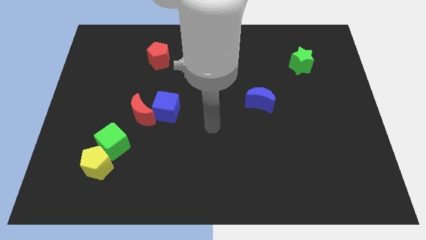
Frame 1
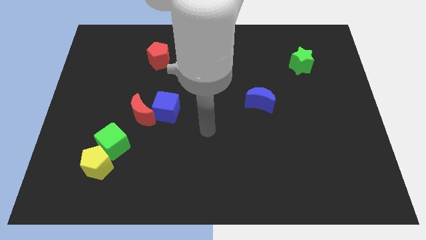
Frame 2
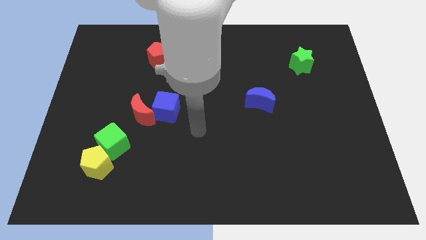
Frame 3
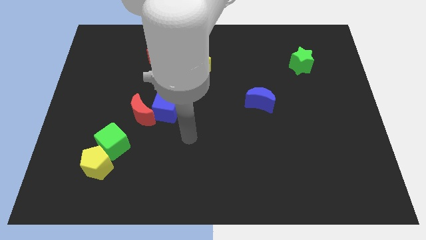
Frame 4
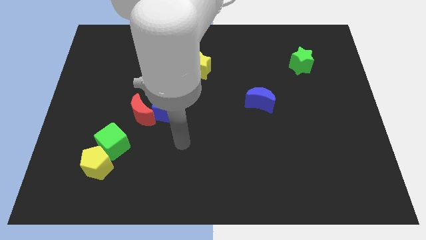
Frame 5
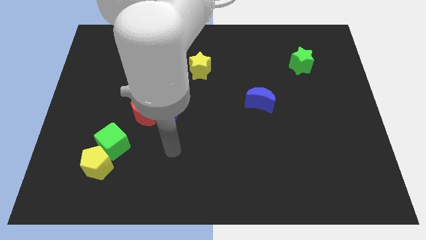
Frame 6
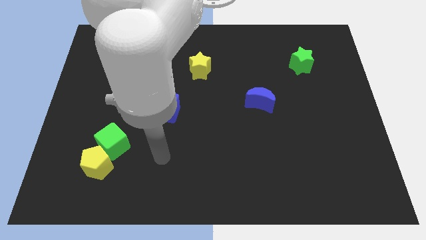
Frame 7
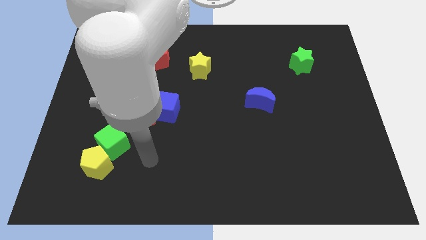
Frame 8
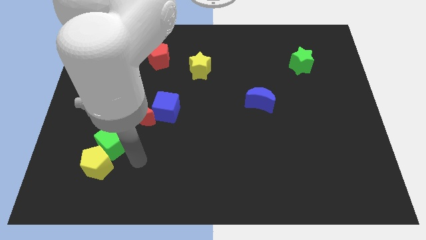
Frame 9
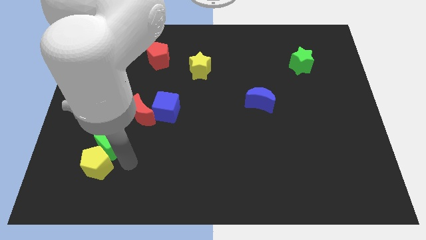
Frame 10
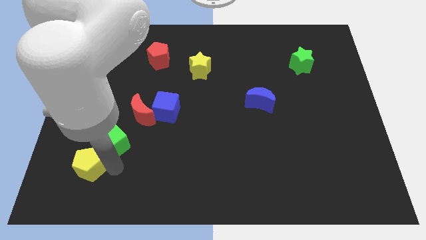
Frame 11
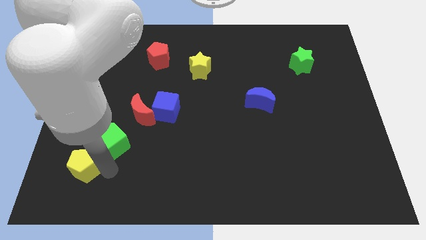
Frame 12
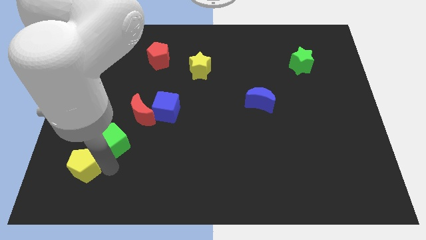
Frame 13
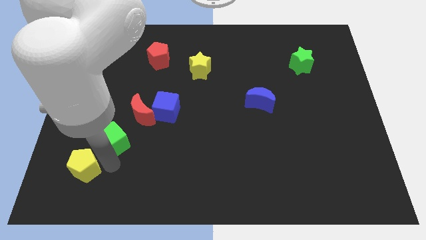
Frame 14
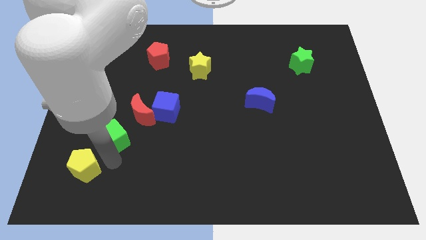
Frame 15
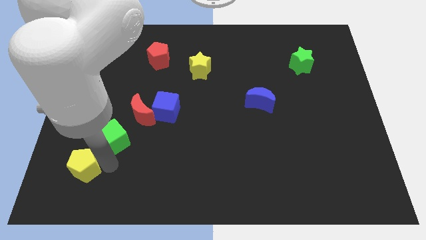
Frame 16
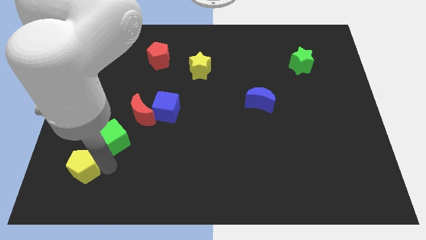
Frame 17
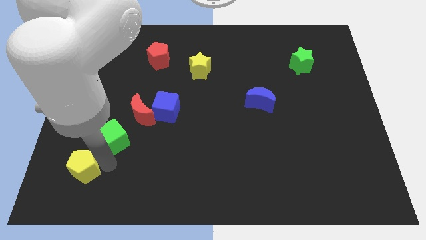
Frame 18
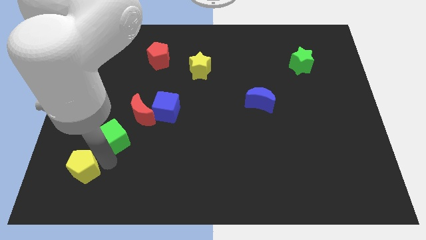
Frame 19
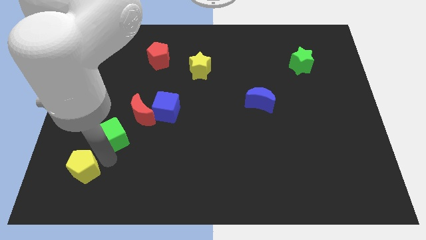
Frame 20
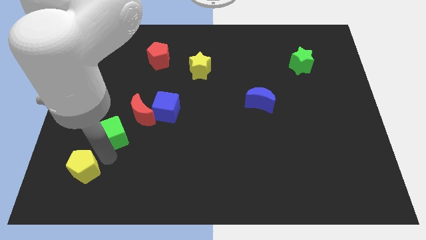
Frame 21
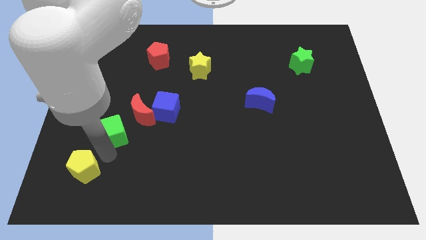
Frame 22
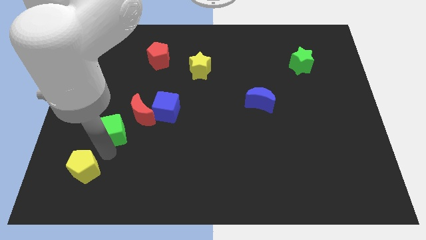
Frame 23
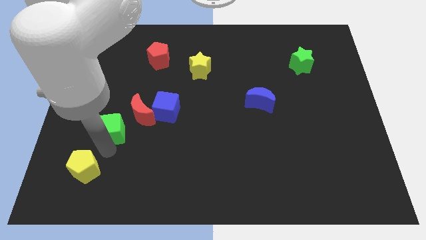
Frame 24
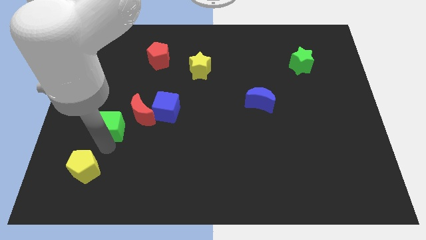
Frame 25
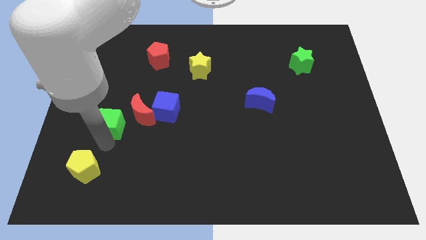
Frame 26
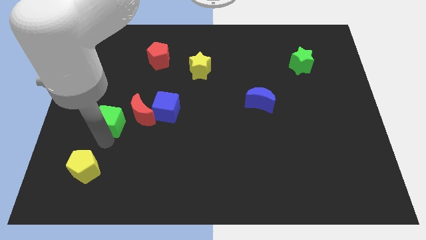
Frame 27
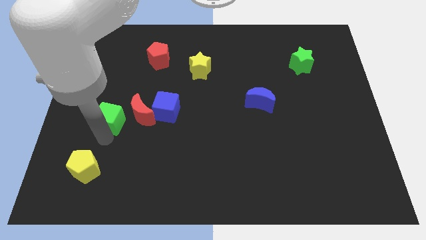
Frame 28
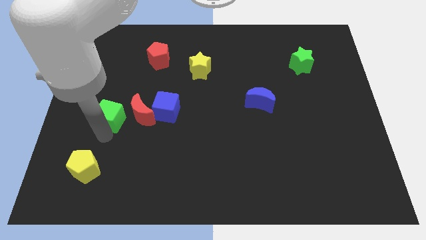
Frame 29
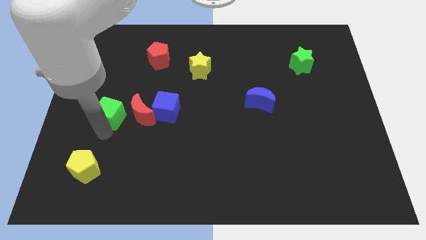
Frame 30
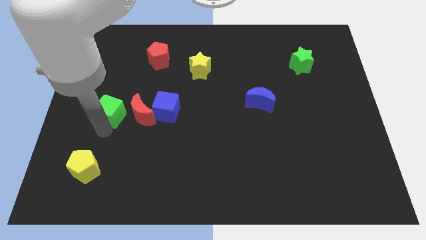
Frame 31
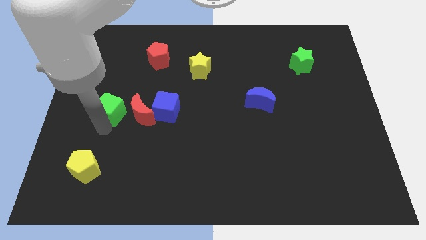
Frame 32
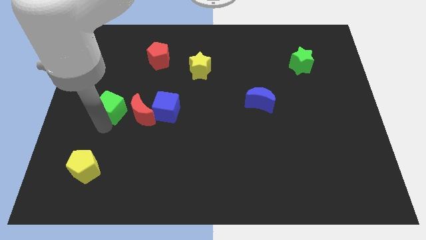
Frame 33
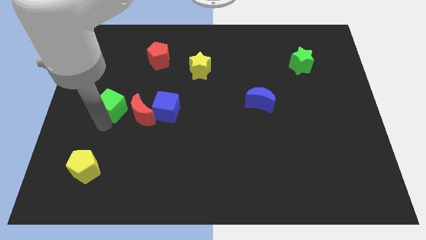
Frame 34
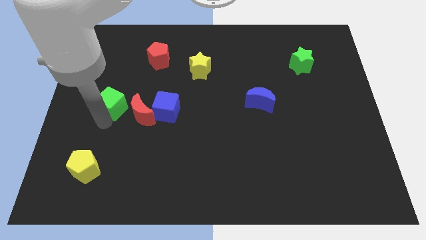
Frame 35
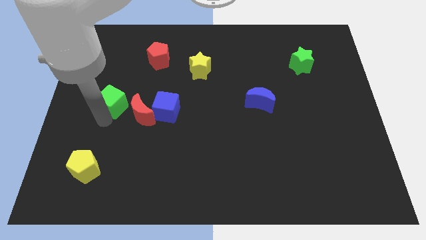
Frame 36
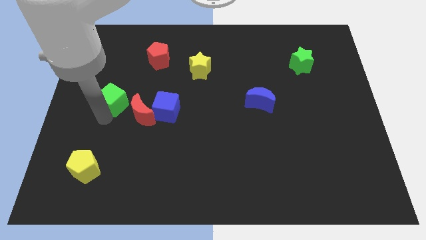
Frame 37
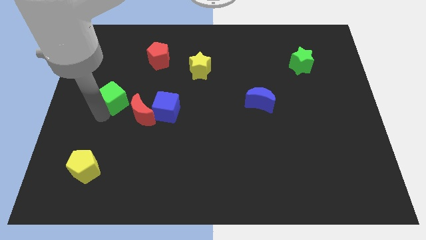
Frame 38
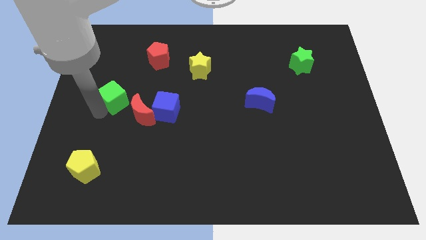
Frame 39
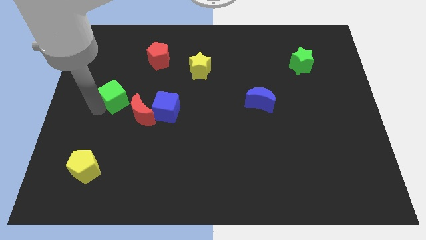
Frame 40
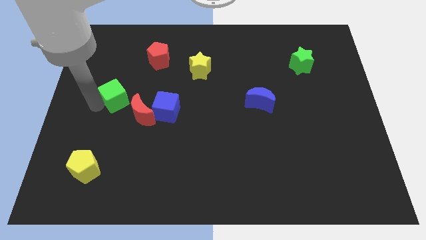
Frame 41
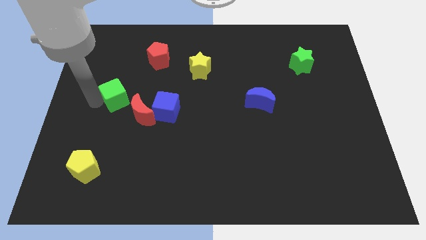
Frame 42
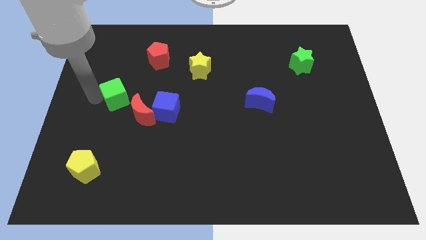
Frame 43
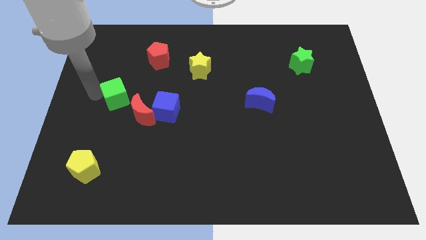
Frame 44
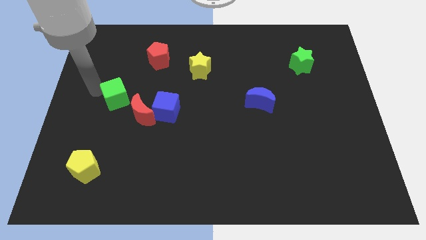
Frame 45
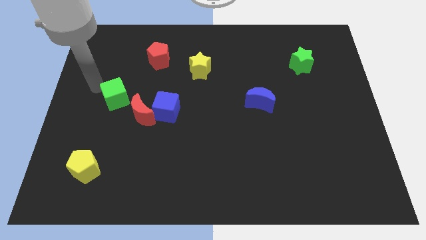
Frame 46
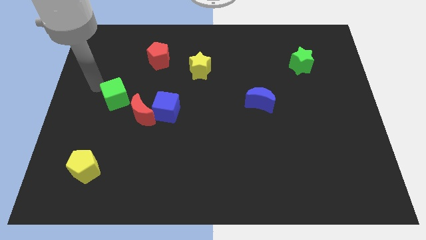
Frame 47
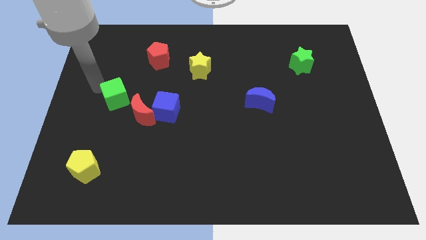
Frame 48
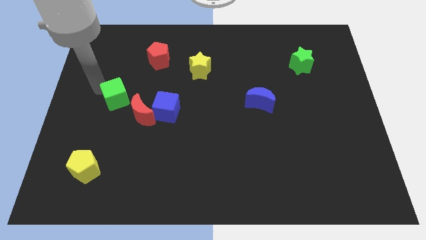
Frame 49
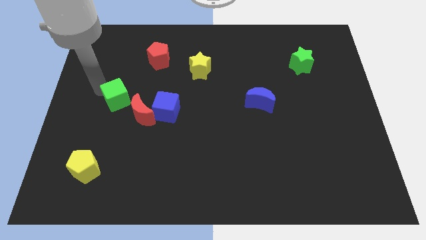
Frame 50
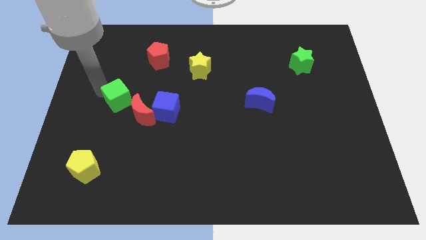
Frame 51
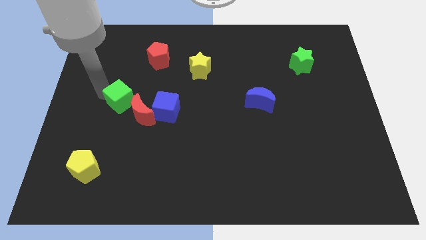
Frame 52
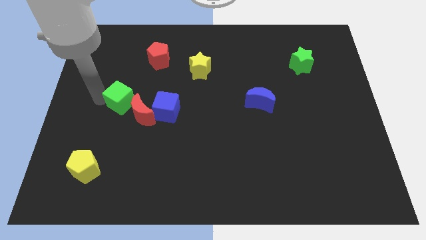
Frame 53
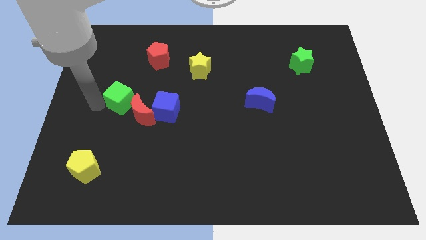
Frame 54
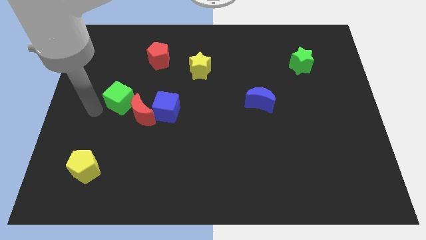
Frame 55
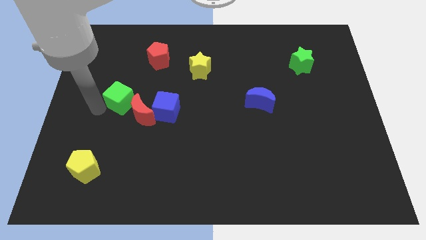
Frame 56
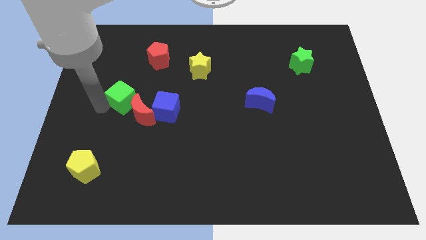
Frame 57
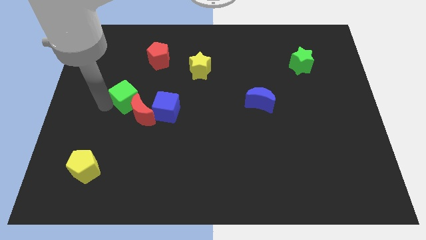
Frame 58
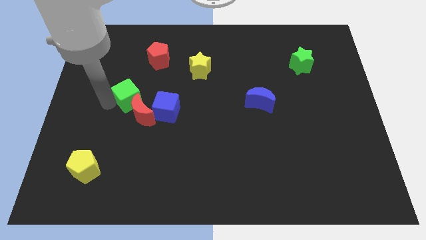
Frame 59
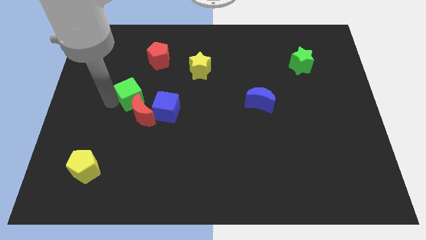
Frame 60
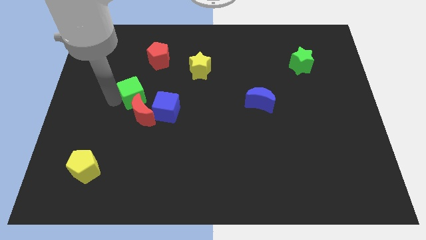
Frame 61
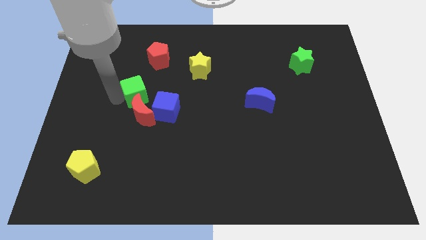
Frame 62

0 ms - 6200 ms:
push the green cube to the bottom side of the red pentagon
